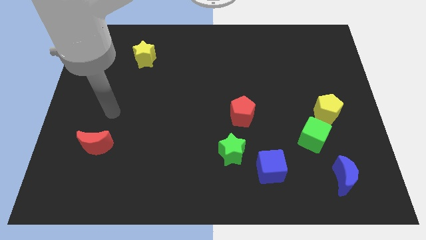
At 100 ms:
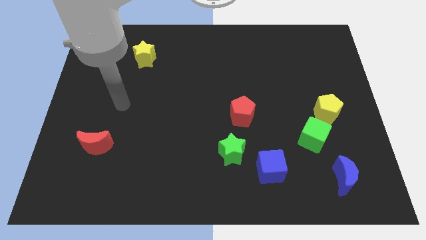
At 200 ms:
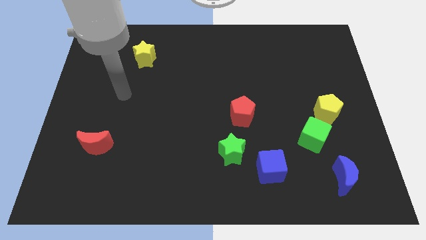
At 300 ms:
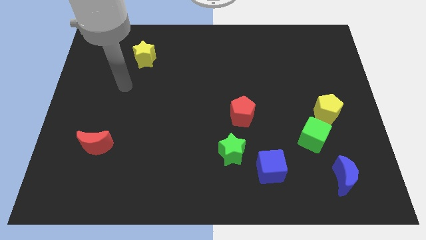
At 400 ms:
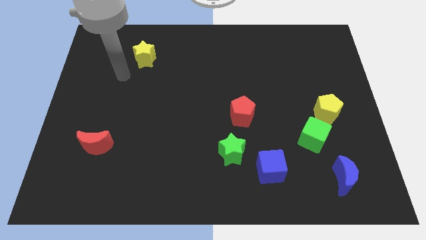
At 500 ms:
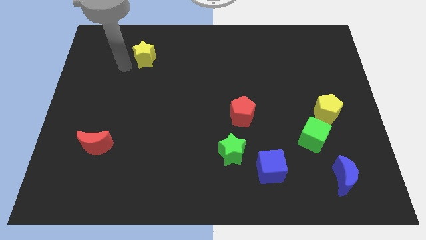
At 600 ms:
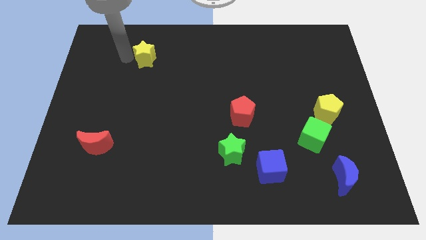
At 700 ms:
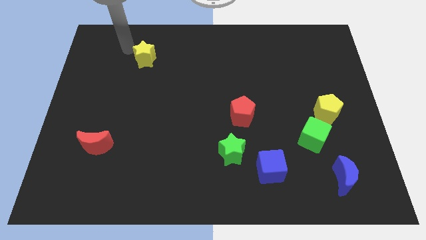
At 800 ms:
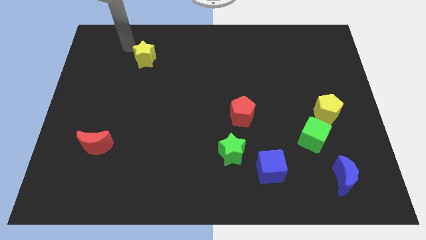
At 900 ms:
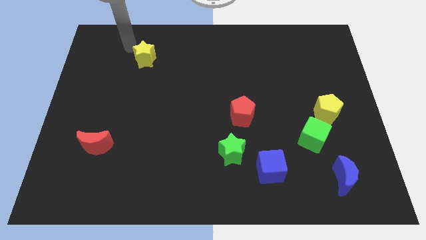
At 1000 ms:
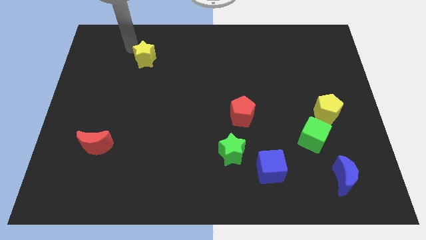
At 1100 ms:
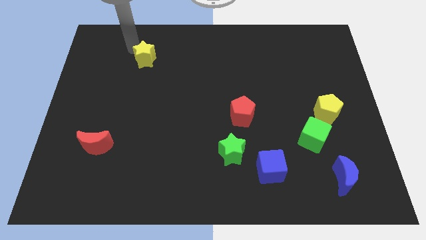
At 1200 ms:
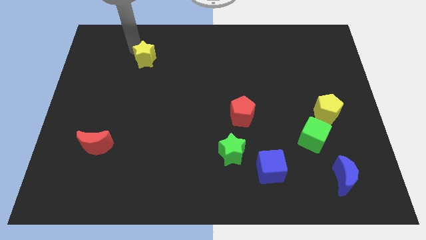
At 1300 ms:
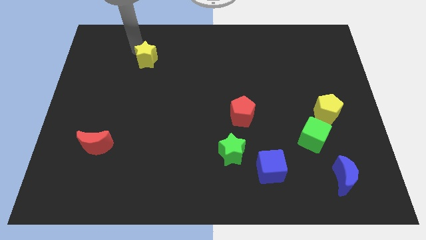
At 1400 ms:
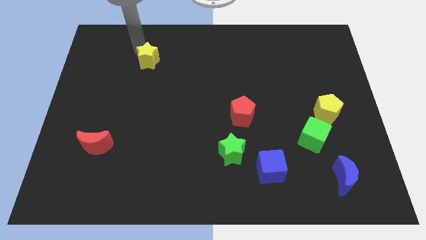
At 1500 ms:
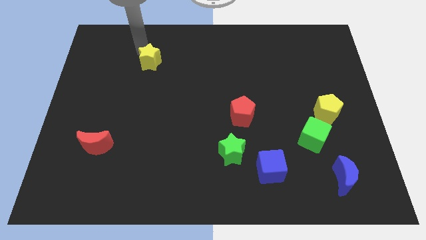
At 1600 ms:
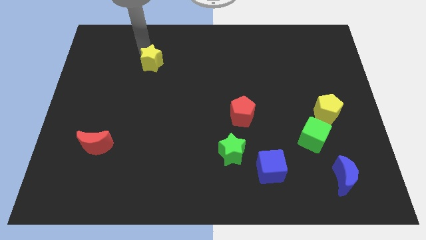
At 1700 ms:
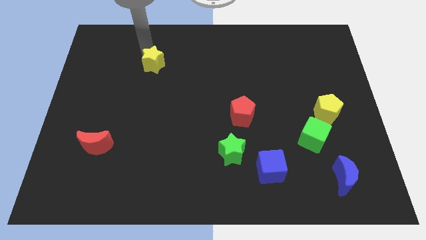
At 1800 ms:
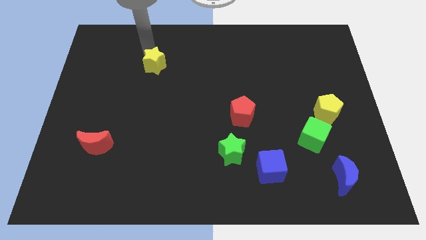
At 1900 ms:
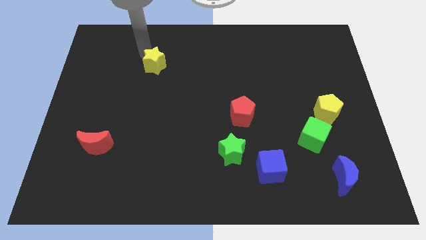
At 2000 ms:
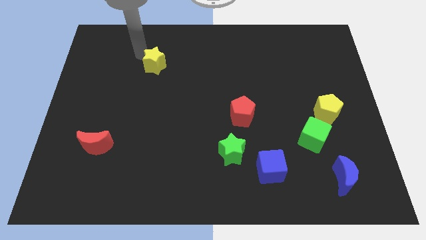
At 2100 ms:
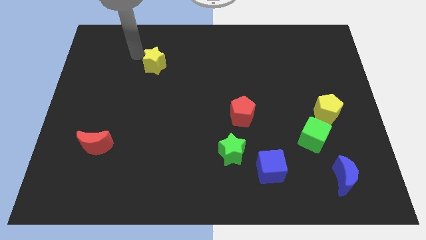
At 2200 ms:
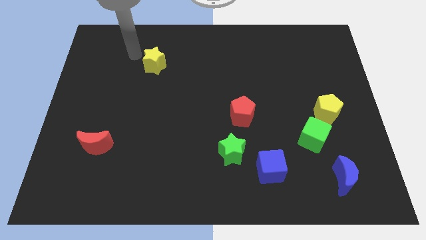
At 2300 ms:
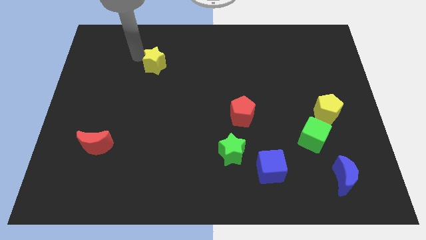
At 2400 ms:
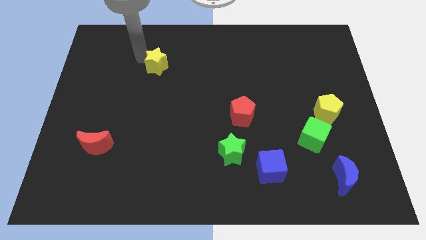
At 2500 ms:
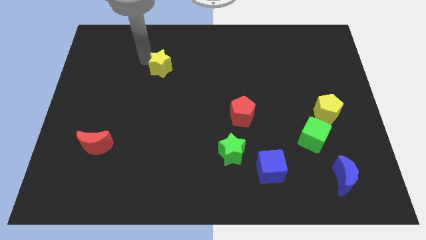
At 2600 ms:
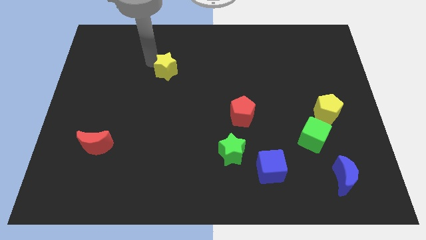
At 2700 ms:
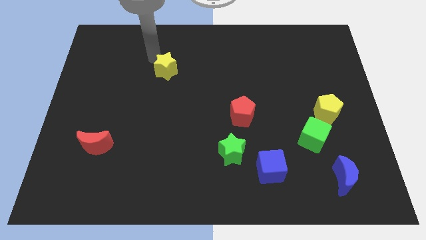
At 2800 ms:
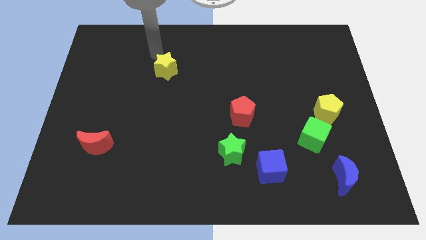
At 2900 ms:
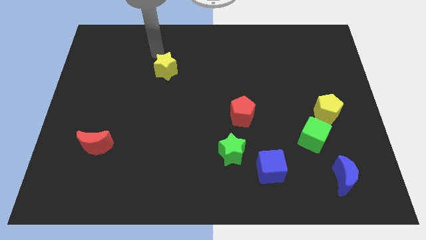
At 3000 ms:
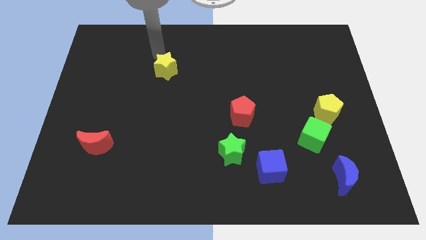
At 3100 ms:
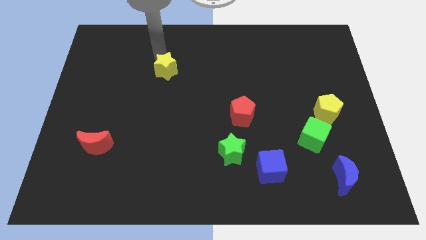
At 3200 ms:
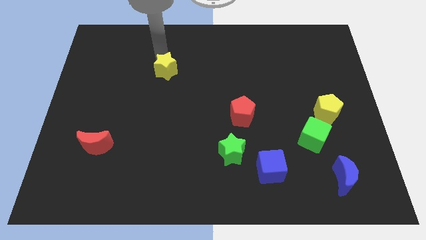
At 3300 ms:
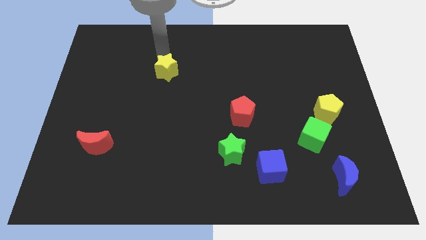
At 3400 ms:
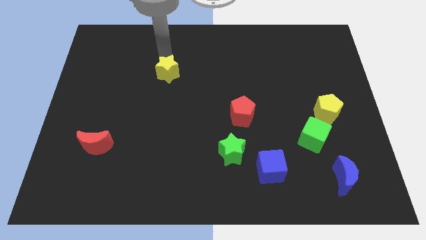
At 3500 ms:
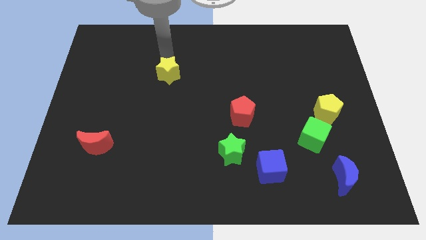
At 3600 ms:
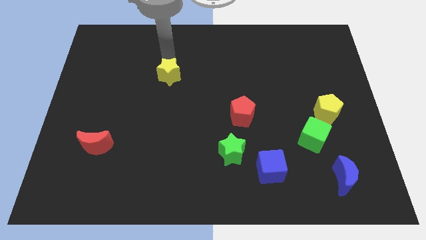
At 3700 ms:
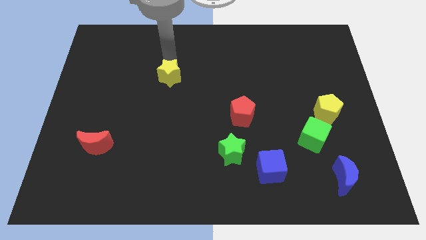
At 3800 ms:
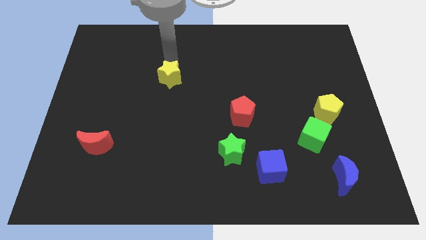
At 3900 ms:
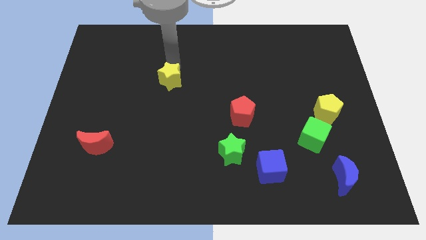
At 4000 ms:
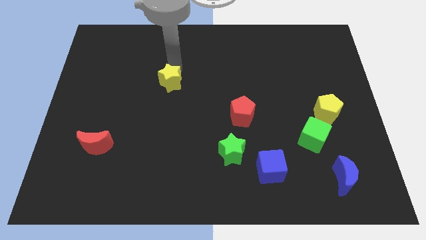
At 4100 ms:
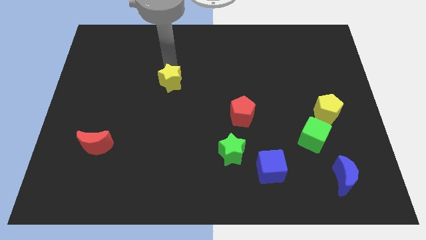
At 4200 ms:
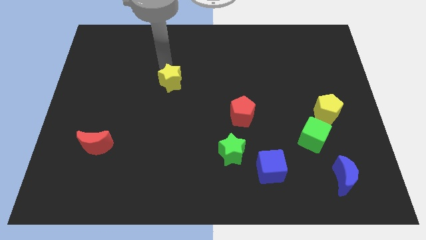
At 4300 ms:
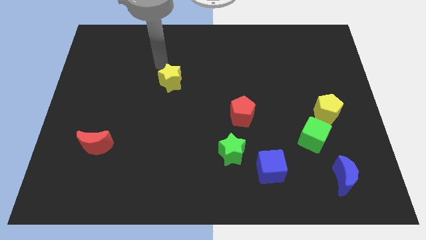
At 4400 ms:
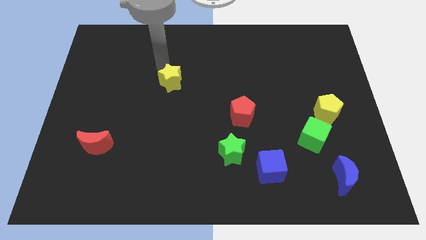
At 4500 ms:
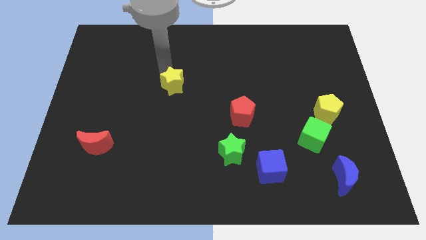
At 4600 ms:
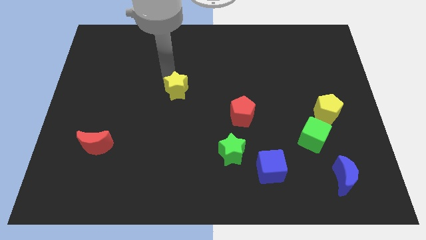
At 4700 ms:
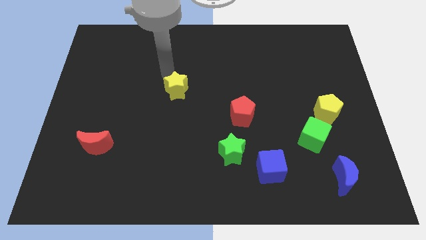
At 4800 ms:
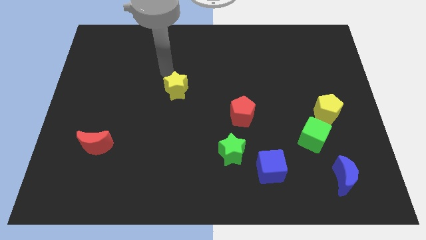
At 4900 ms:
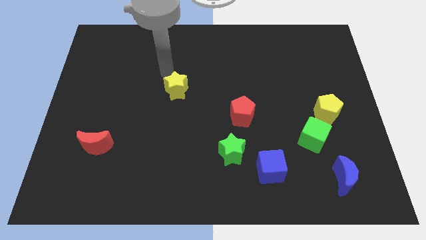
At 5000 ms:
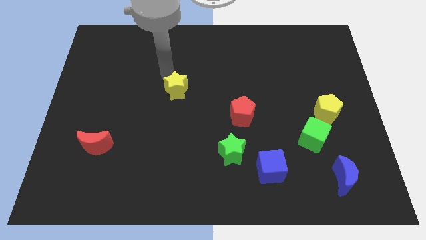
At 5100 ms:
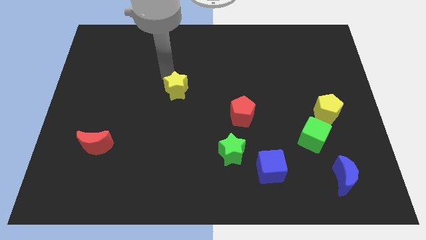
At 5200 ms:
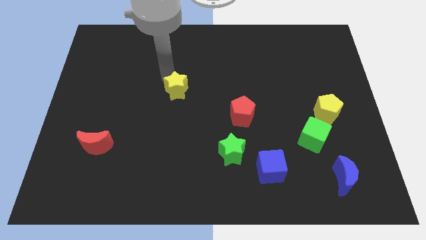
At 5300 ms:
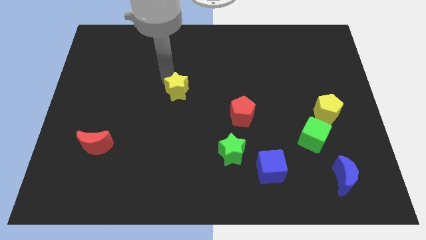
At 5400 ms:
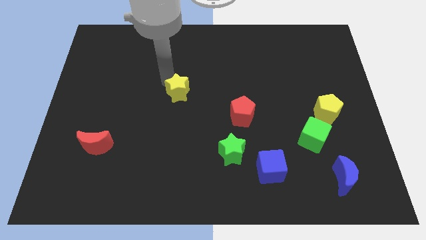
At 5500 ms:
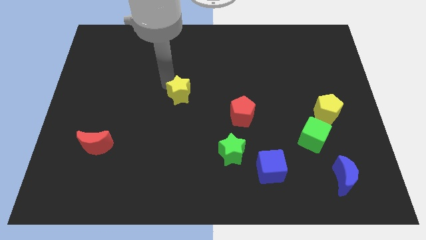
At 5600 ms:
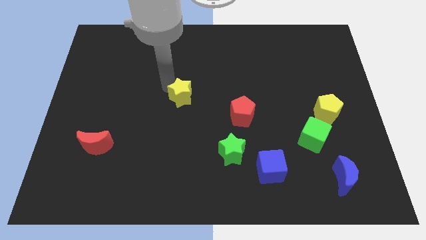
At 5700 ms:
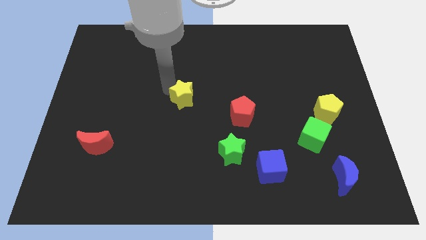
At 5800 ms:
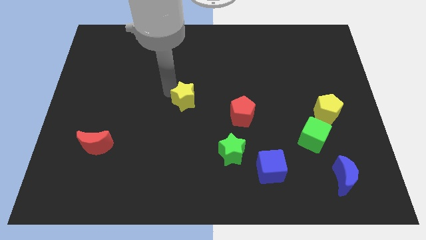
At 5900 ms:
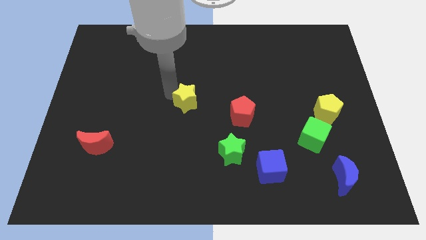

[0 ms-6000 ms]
push the yellow star just left of the red pentagon

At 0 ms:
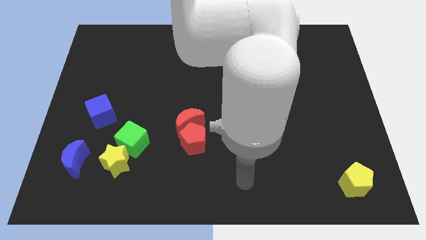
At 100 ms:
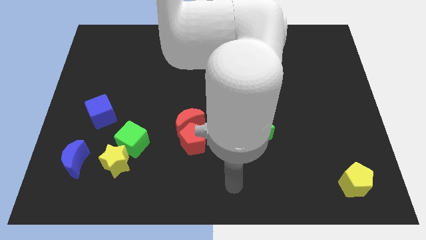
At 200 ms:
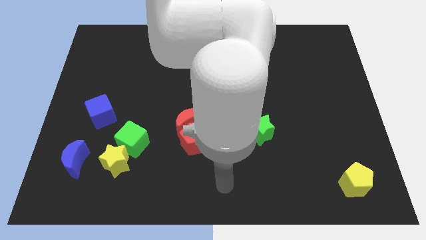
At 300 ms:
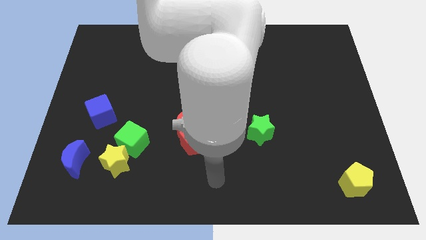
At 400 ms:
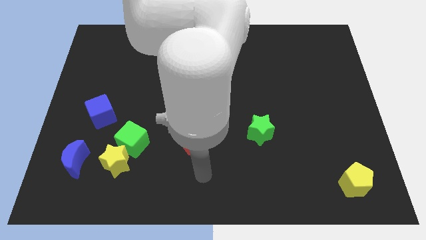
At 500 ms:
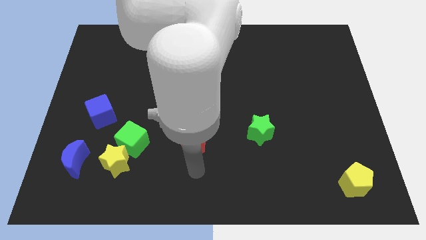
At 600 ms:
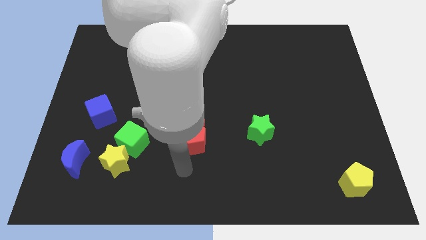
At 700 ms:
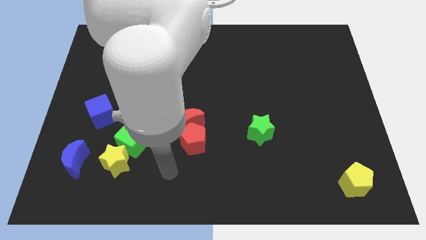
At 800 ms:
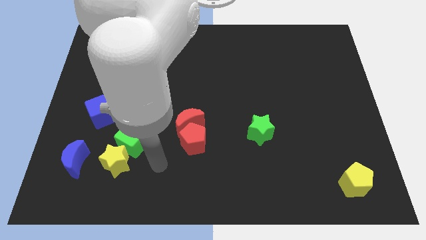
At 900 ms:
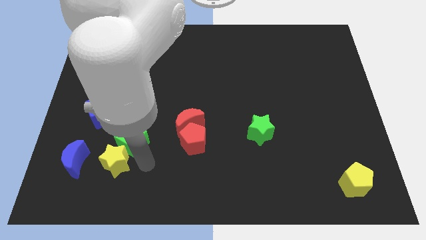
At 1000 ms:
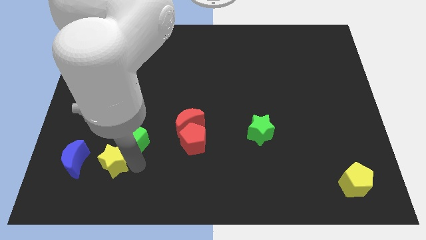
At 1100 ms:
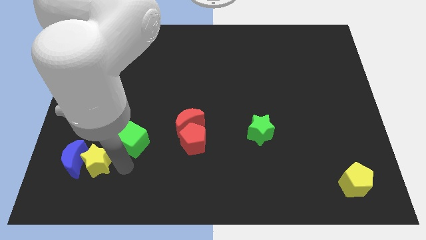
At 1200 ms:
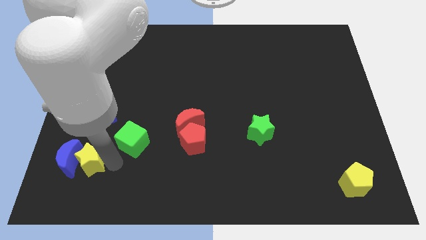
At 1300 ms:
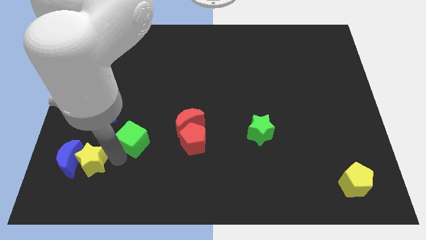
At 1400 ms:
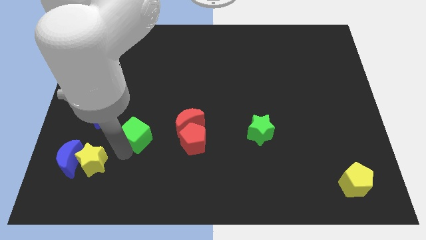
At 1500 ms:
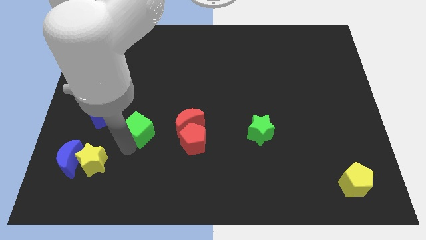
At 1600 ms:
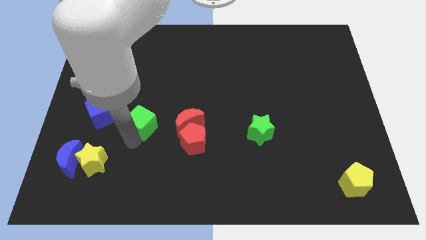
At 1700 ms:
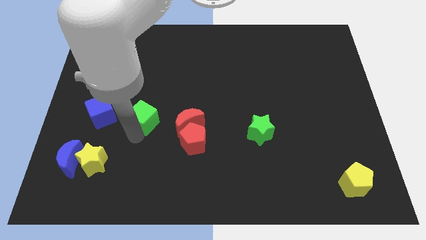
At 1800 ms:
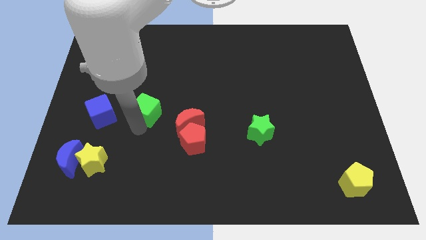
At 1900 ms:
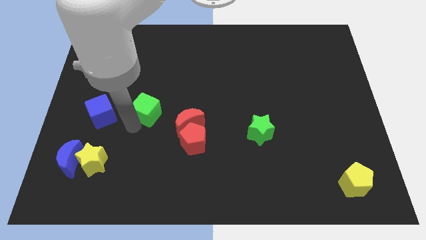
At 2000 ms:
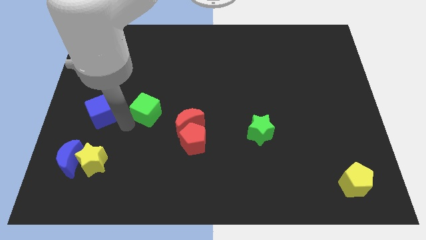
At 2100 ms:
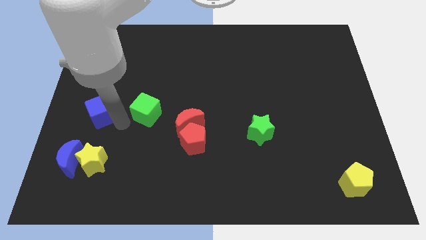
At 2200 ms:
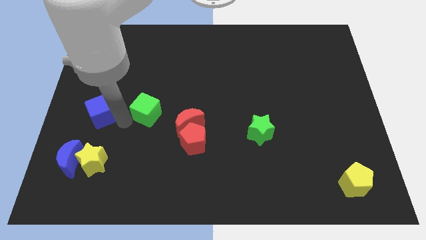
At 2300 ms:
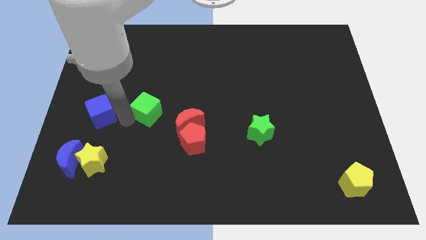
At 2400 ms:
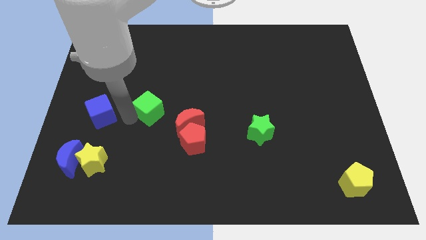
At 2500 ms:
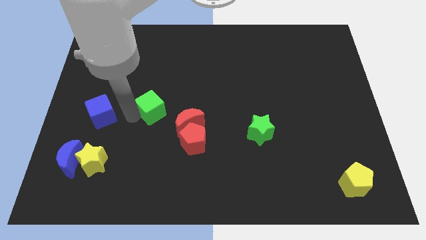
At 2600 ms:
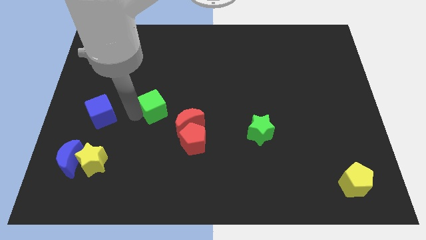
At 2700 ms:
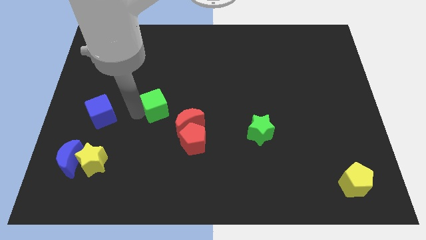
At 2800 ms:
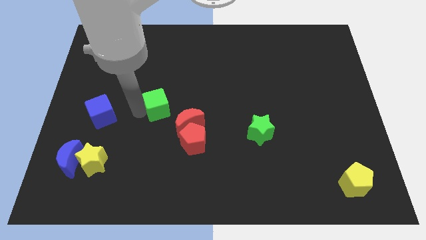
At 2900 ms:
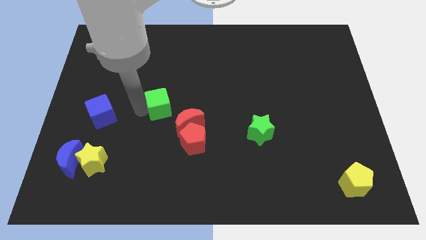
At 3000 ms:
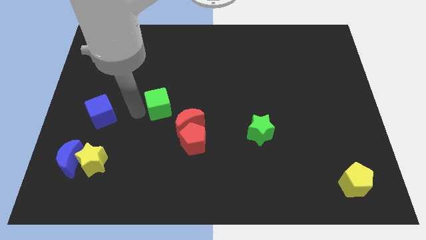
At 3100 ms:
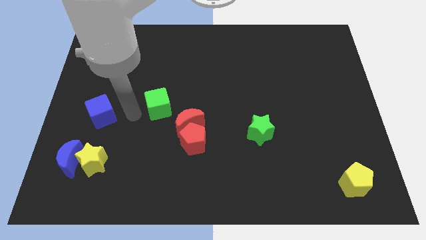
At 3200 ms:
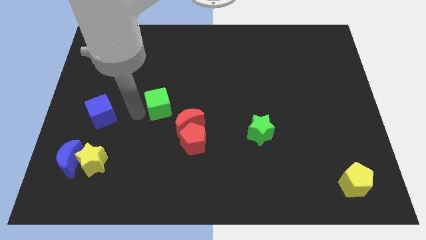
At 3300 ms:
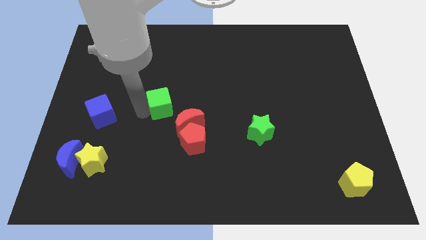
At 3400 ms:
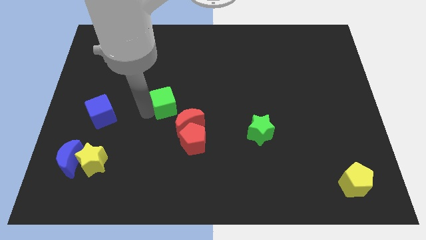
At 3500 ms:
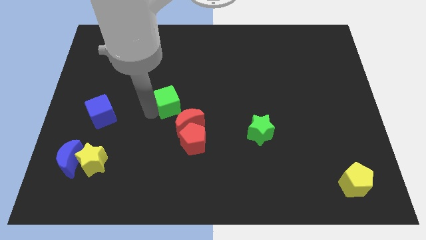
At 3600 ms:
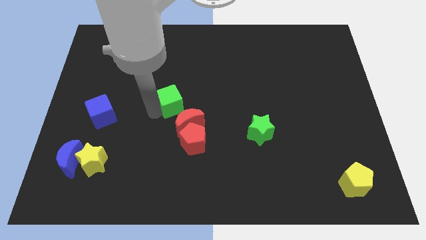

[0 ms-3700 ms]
push the green cube to the top side of the red moon
